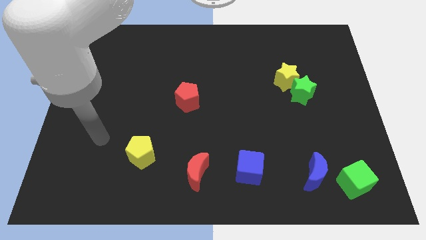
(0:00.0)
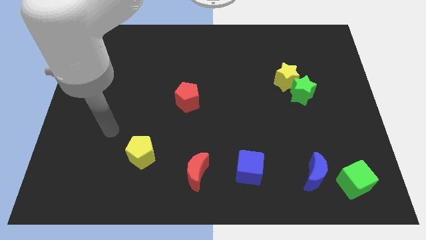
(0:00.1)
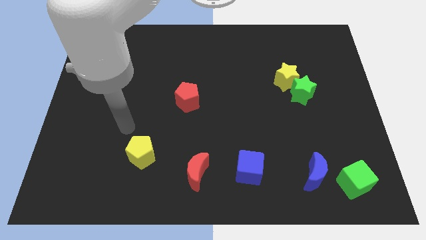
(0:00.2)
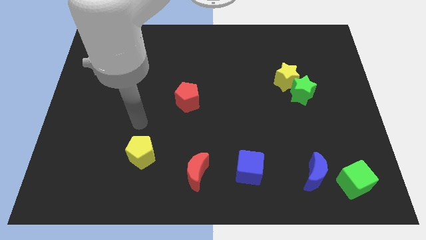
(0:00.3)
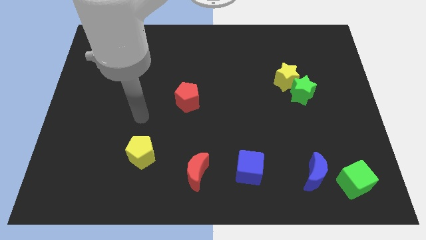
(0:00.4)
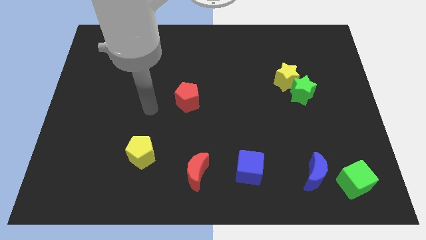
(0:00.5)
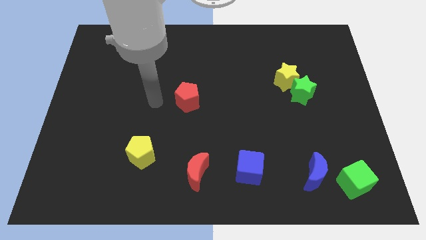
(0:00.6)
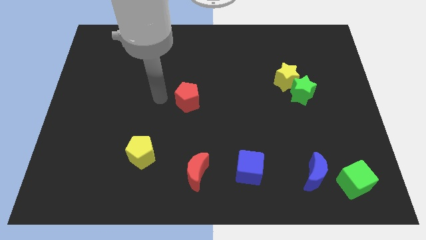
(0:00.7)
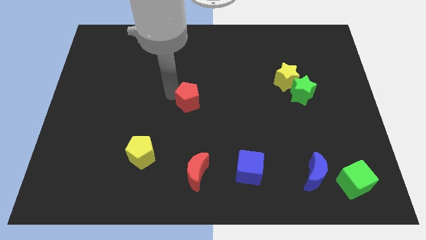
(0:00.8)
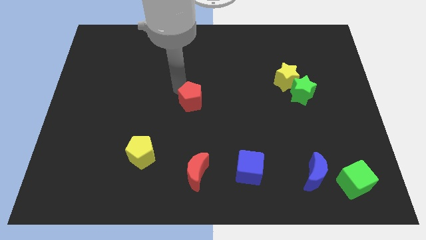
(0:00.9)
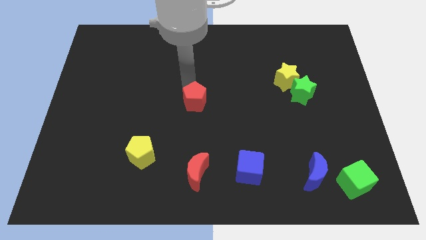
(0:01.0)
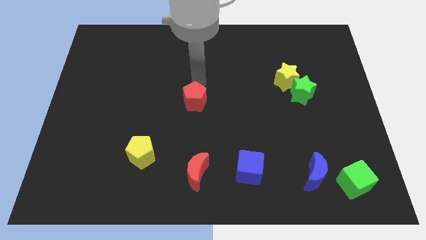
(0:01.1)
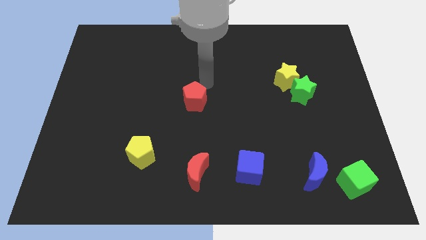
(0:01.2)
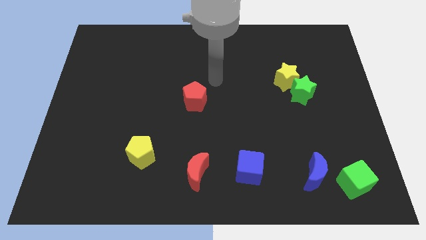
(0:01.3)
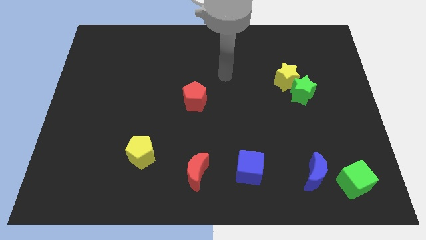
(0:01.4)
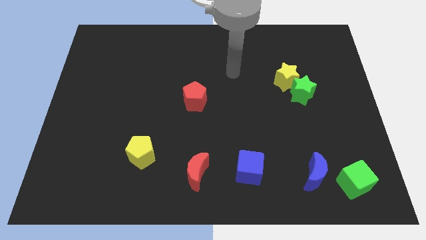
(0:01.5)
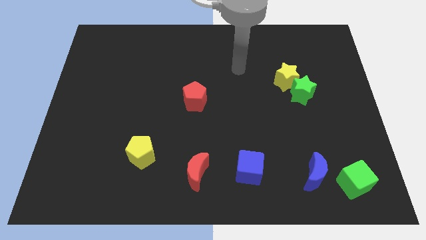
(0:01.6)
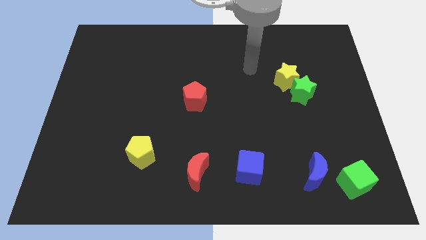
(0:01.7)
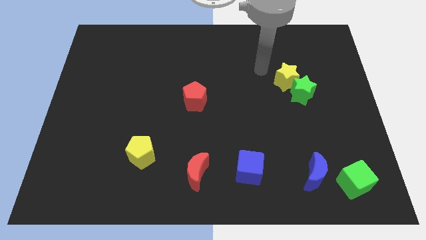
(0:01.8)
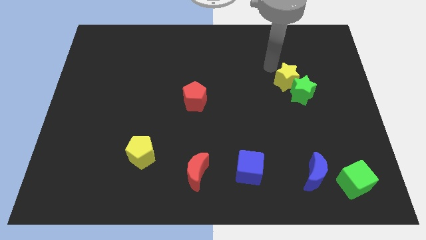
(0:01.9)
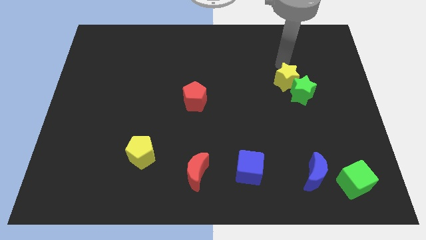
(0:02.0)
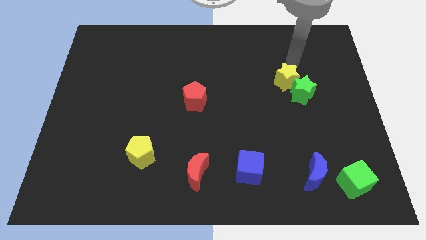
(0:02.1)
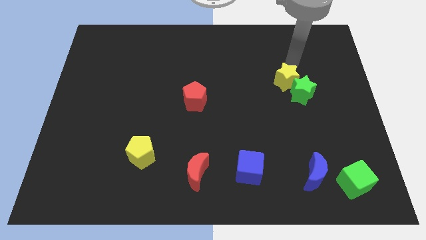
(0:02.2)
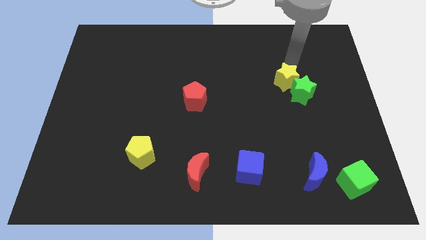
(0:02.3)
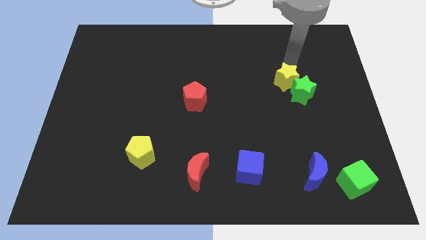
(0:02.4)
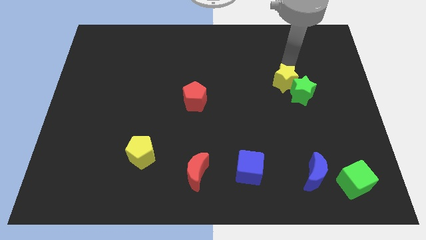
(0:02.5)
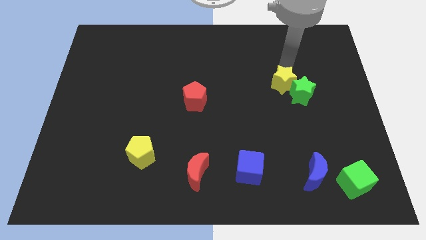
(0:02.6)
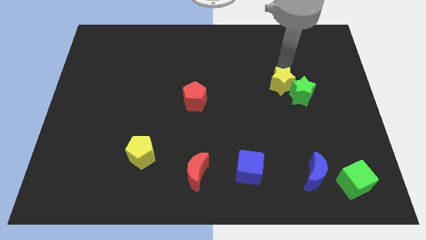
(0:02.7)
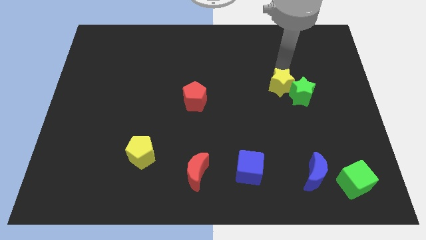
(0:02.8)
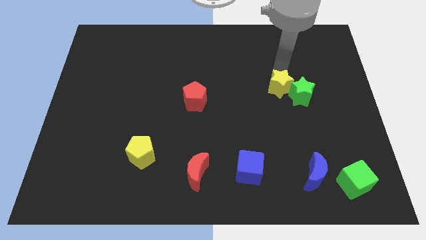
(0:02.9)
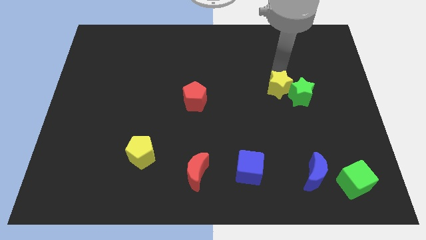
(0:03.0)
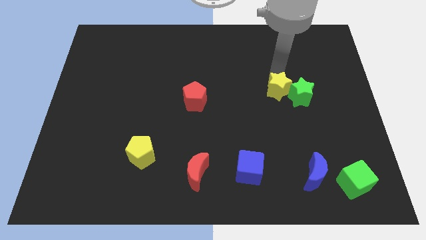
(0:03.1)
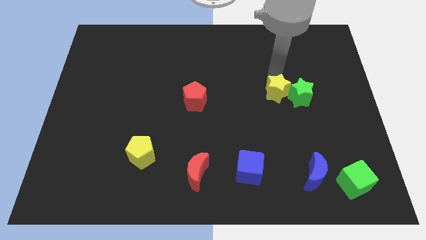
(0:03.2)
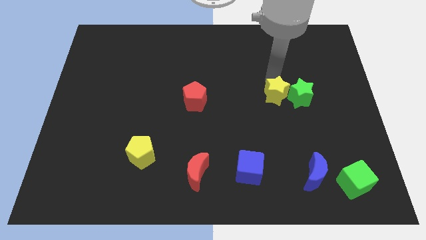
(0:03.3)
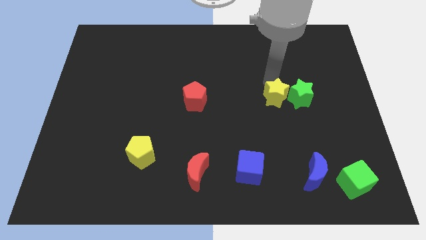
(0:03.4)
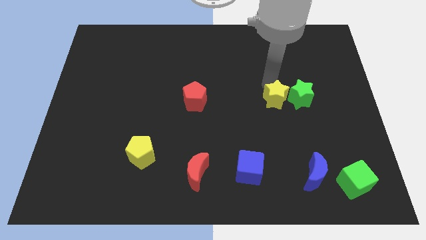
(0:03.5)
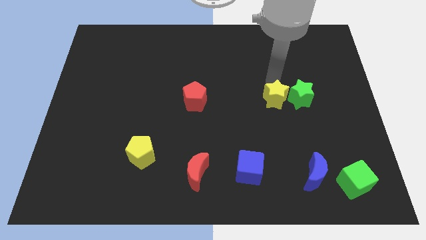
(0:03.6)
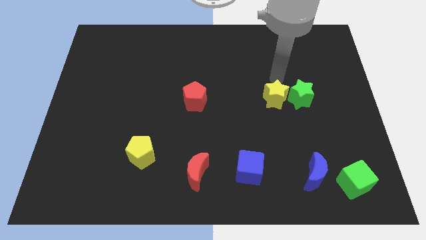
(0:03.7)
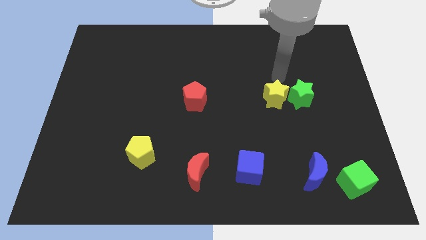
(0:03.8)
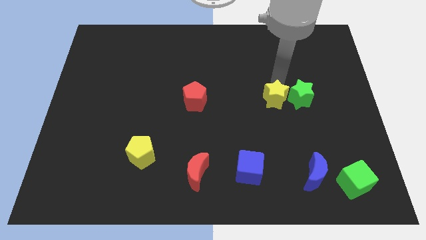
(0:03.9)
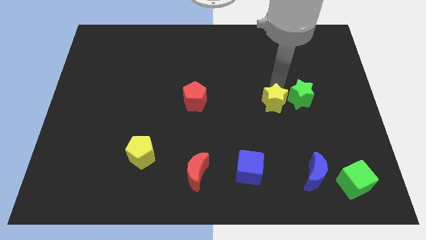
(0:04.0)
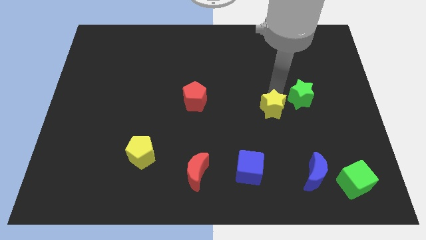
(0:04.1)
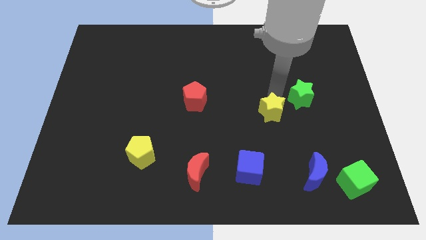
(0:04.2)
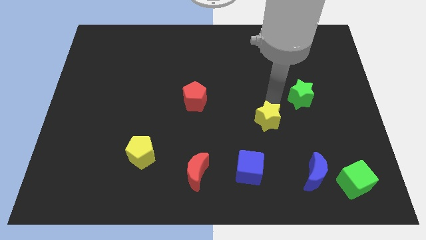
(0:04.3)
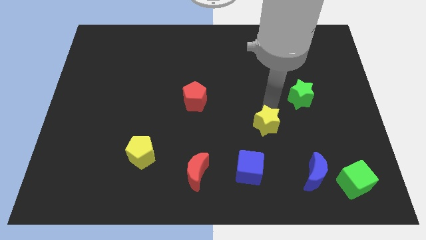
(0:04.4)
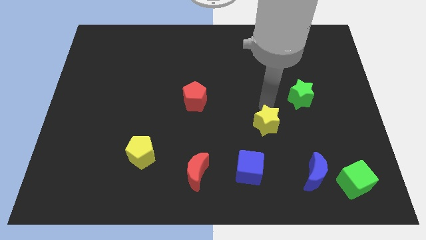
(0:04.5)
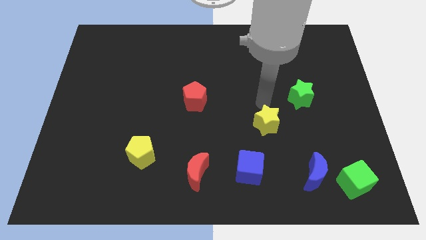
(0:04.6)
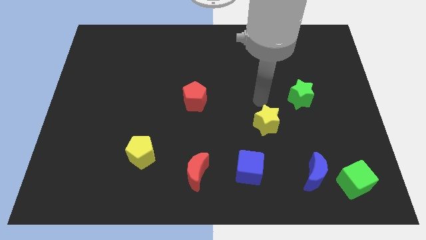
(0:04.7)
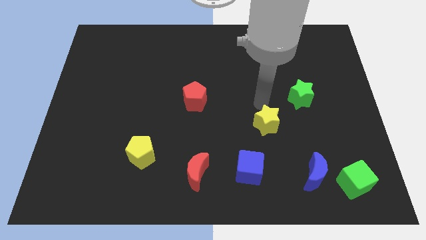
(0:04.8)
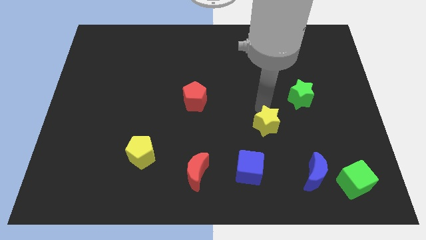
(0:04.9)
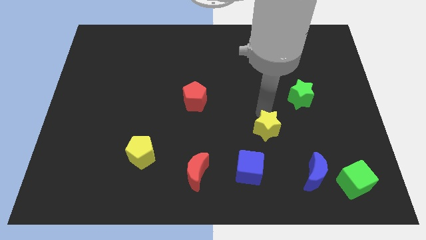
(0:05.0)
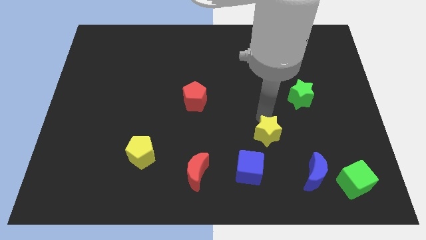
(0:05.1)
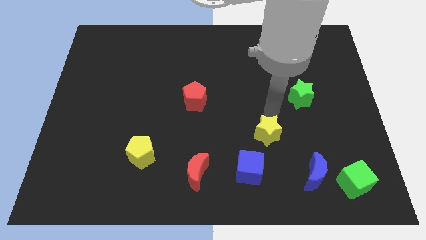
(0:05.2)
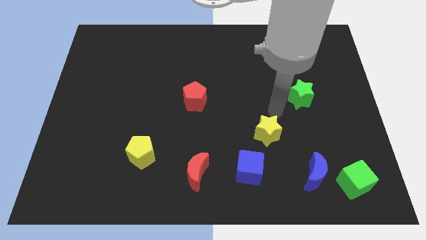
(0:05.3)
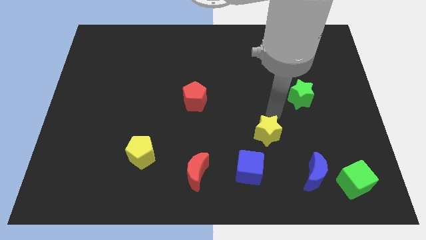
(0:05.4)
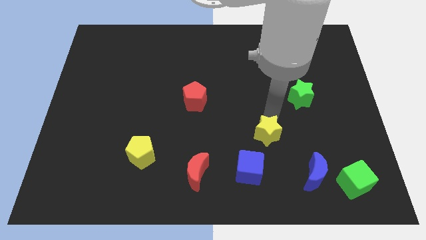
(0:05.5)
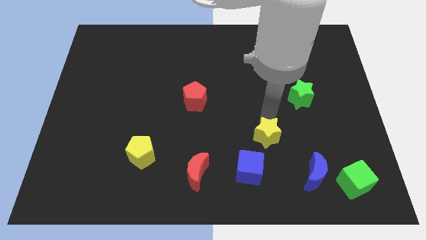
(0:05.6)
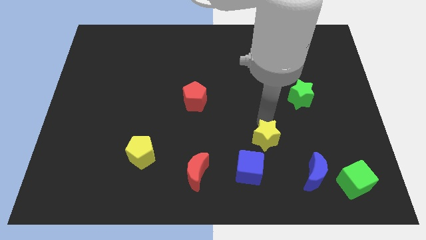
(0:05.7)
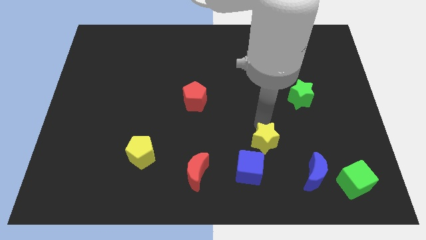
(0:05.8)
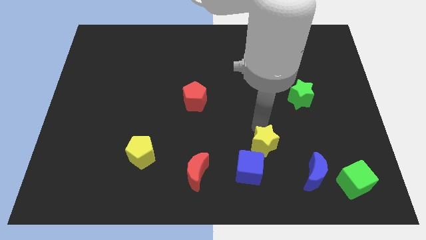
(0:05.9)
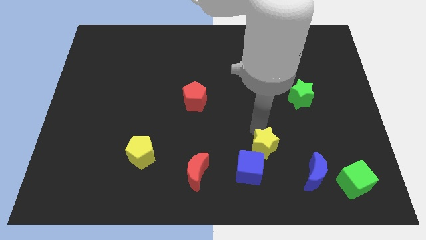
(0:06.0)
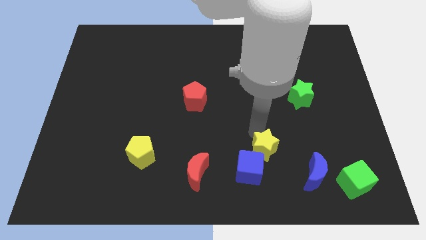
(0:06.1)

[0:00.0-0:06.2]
push the yellow star close to the blue cube
